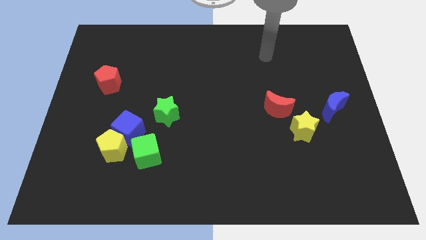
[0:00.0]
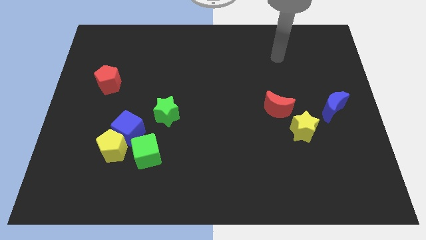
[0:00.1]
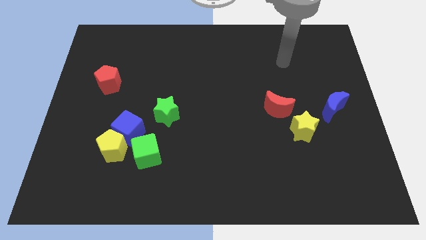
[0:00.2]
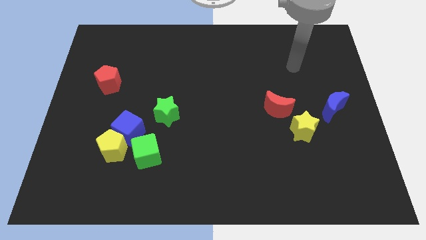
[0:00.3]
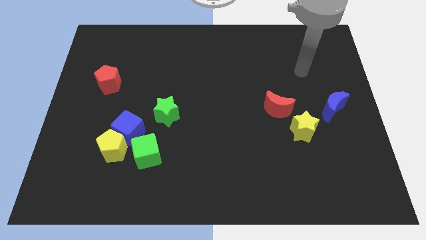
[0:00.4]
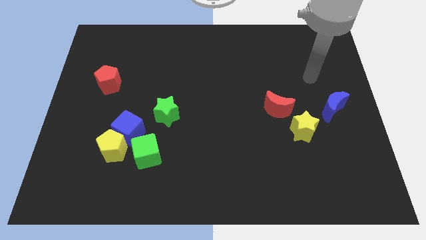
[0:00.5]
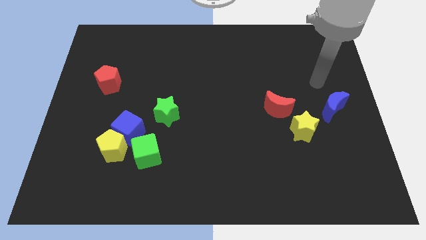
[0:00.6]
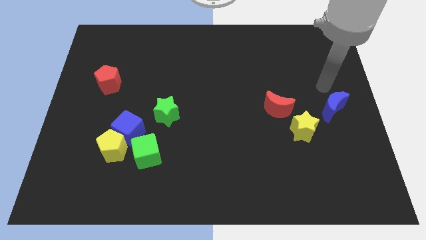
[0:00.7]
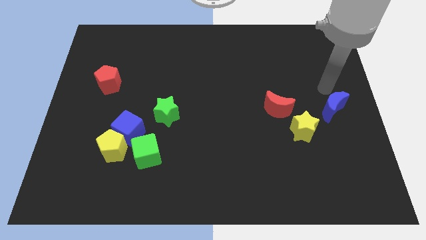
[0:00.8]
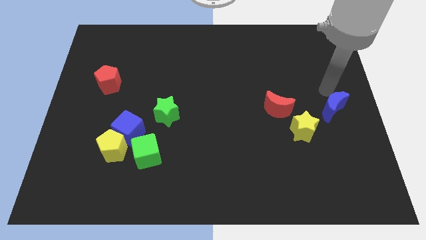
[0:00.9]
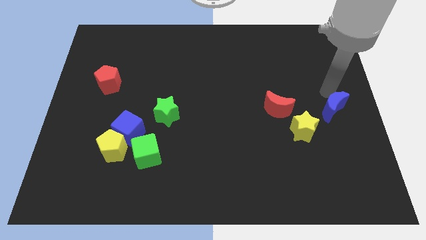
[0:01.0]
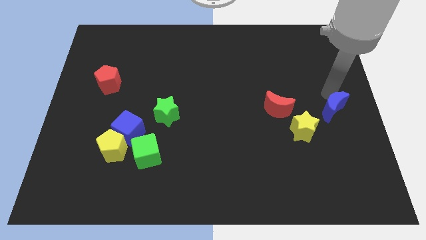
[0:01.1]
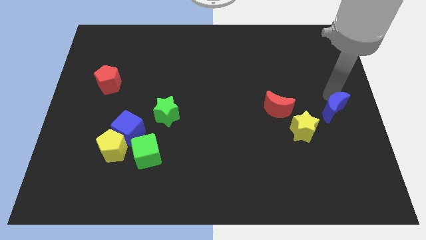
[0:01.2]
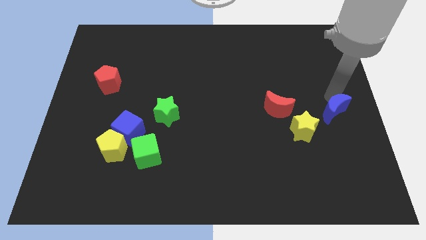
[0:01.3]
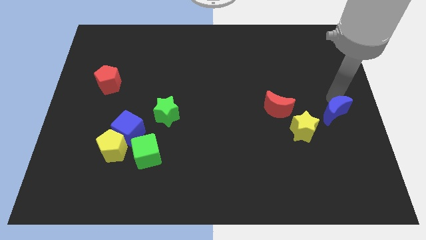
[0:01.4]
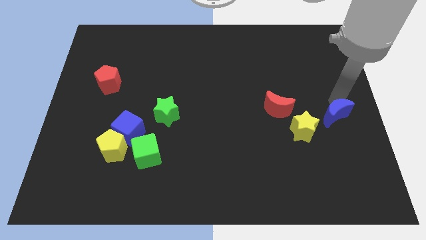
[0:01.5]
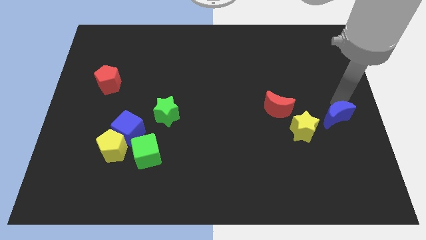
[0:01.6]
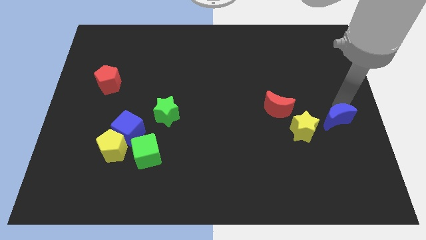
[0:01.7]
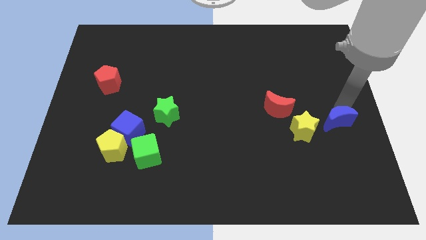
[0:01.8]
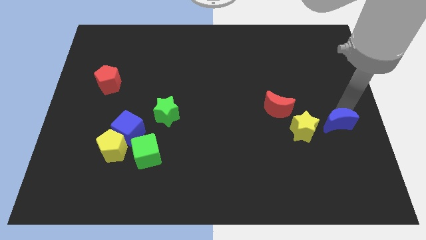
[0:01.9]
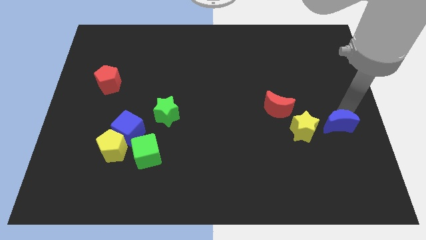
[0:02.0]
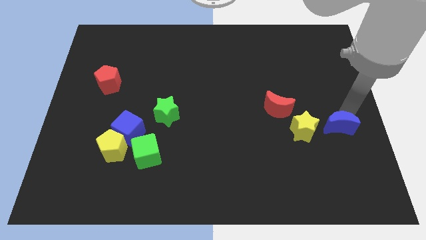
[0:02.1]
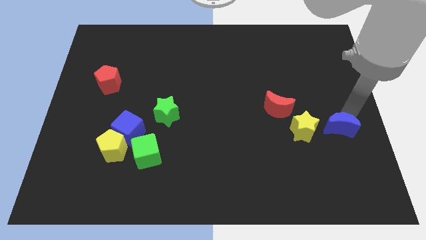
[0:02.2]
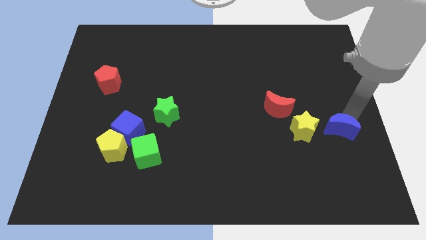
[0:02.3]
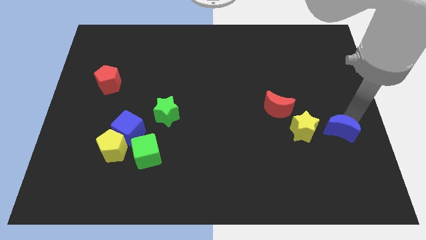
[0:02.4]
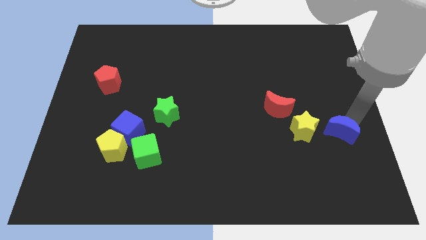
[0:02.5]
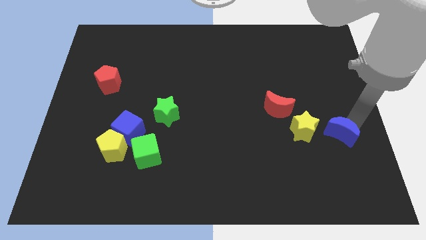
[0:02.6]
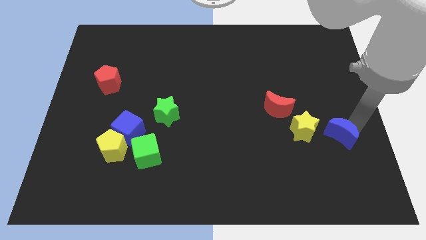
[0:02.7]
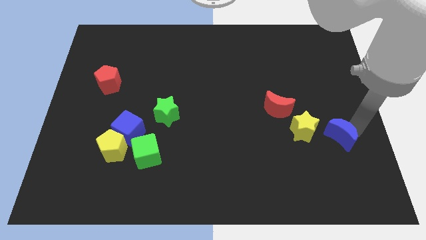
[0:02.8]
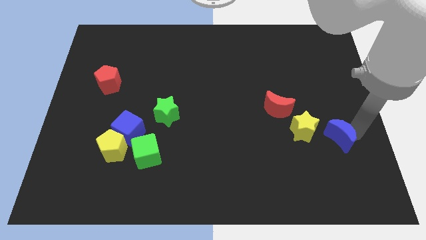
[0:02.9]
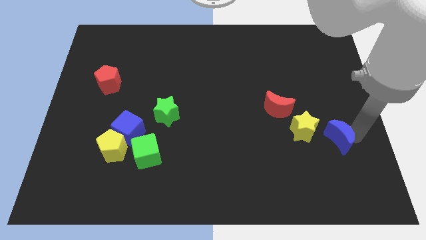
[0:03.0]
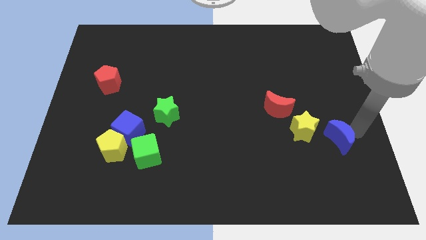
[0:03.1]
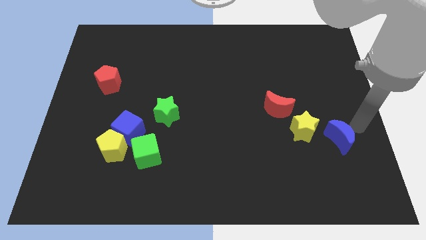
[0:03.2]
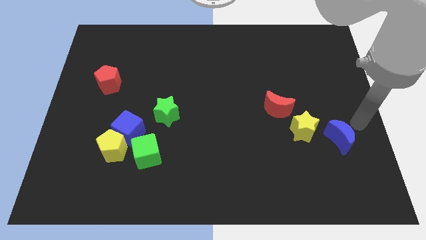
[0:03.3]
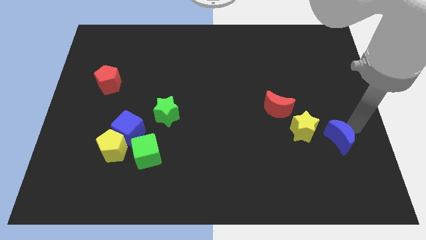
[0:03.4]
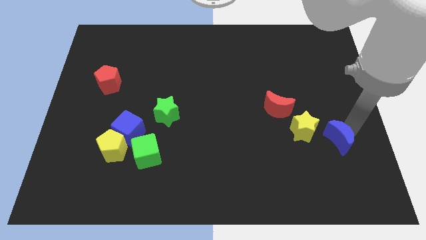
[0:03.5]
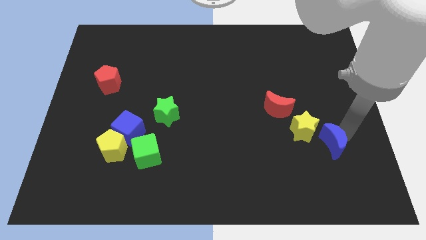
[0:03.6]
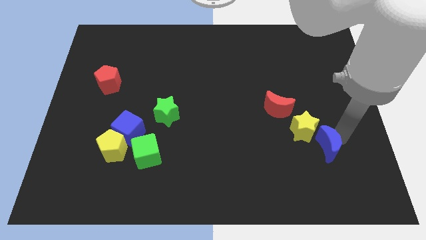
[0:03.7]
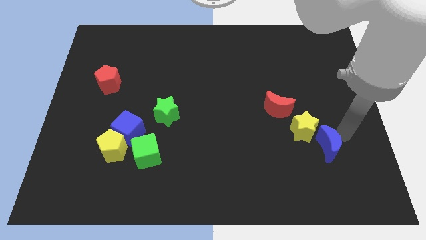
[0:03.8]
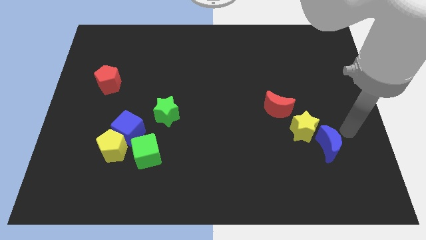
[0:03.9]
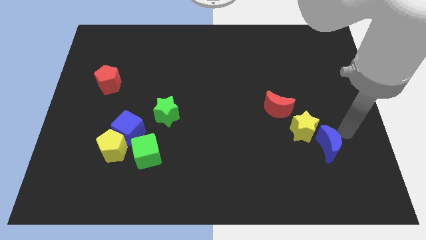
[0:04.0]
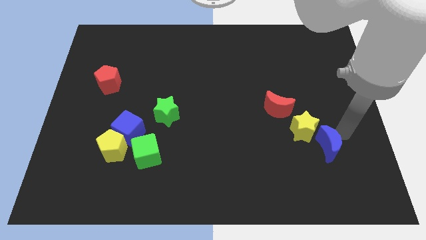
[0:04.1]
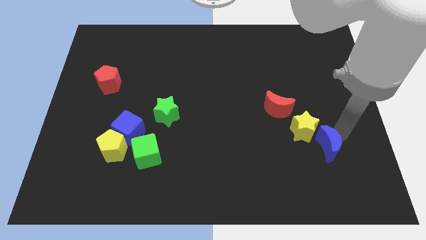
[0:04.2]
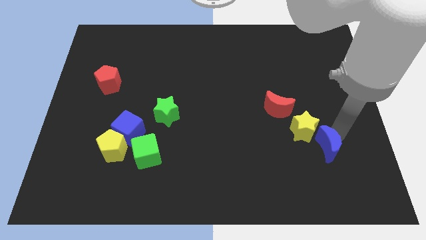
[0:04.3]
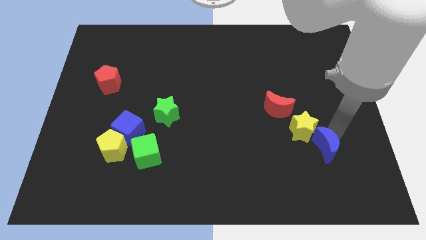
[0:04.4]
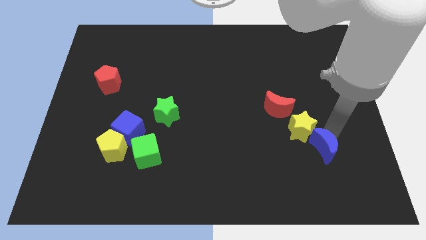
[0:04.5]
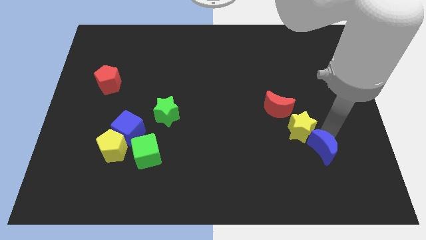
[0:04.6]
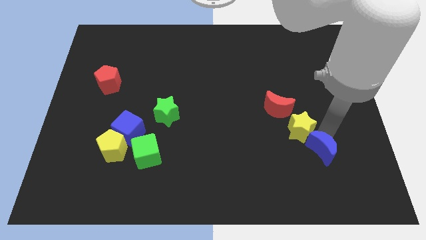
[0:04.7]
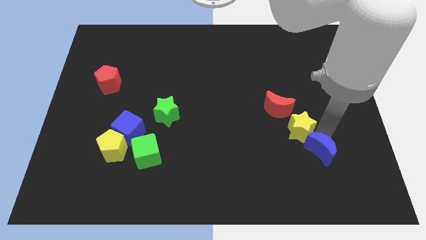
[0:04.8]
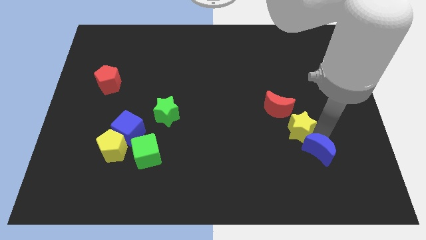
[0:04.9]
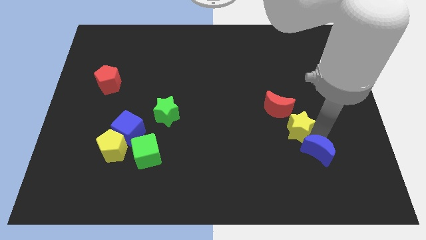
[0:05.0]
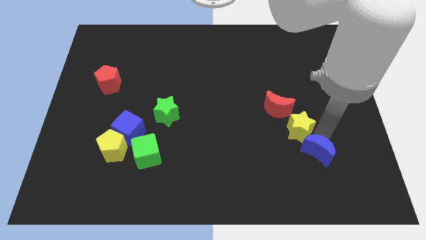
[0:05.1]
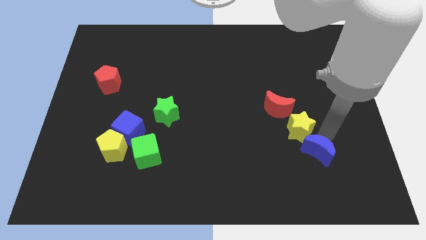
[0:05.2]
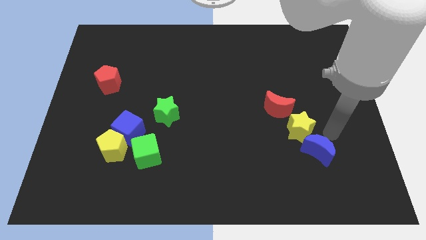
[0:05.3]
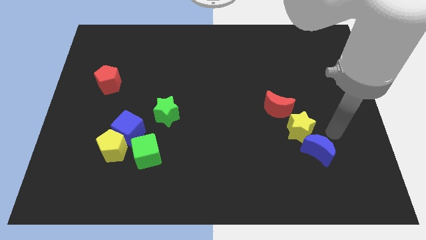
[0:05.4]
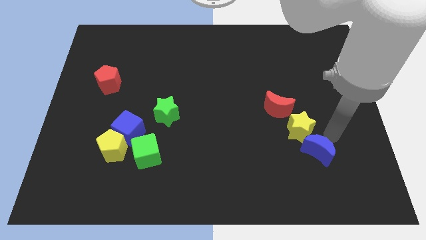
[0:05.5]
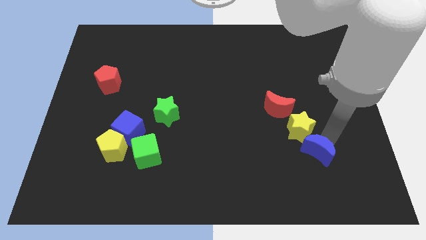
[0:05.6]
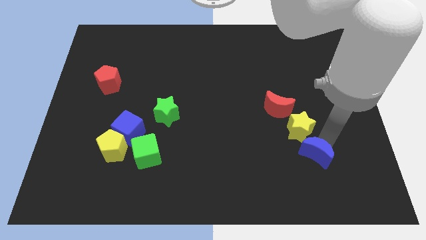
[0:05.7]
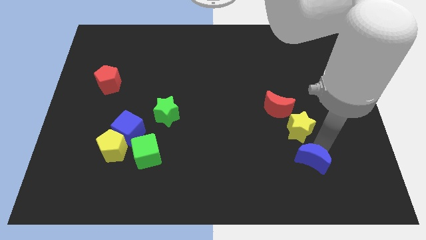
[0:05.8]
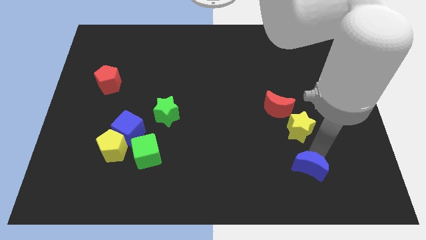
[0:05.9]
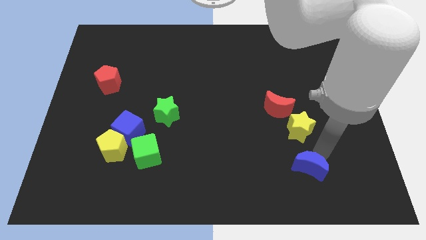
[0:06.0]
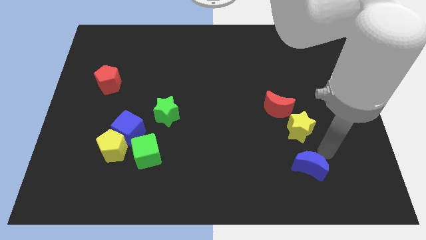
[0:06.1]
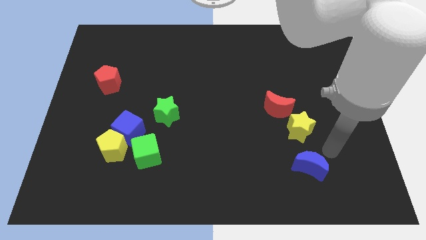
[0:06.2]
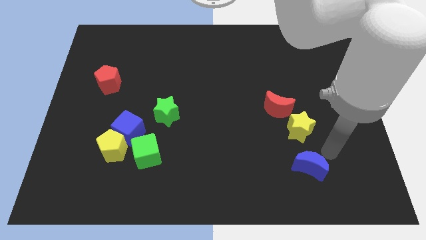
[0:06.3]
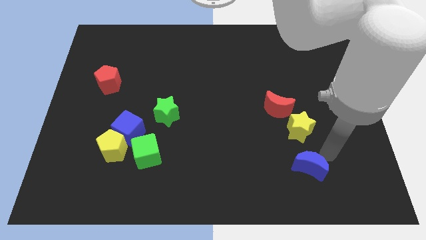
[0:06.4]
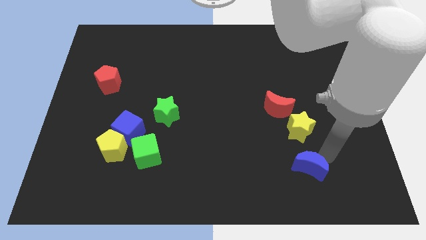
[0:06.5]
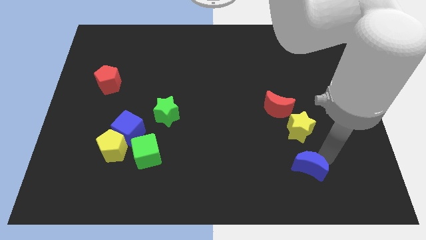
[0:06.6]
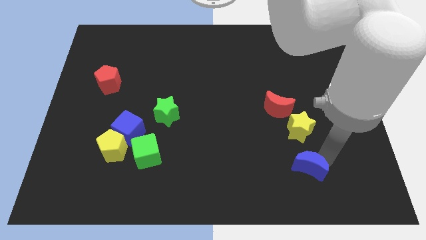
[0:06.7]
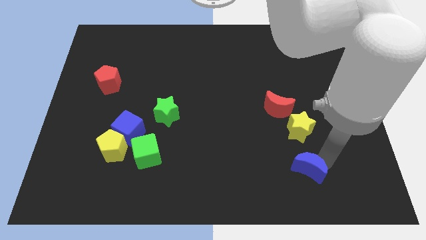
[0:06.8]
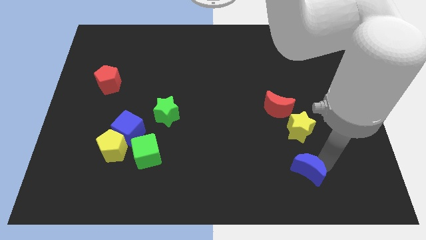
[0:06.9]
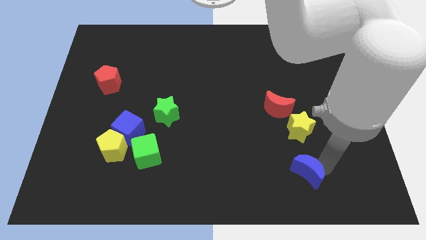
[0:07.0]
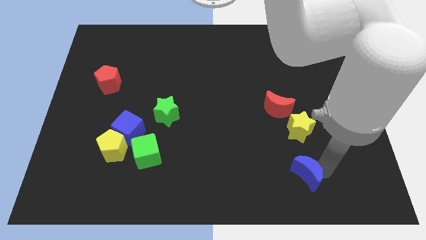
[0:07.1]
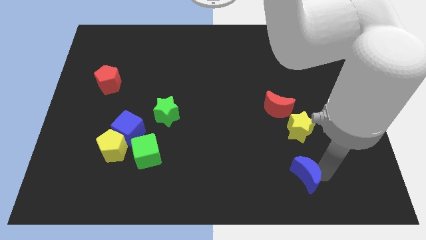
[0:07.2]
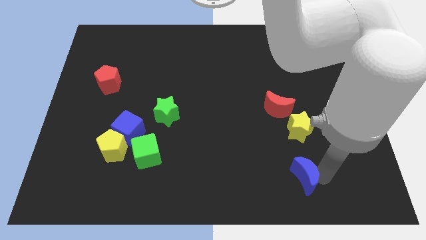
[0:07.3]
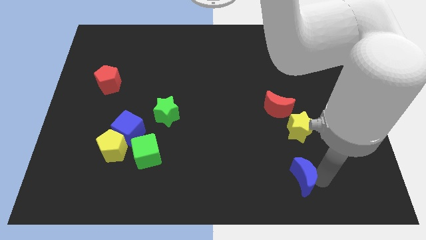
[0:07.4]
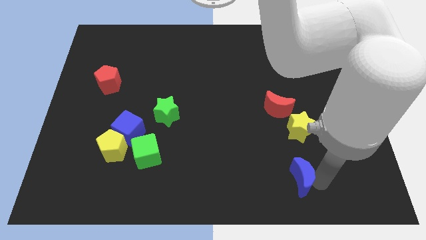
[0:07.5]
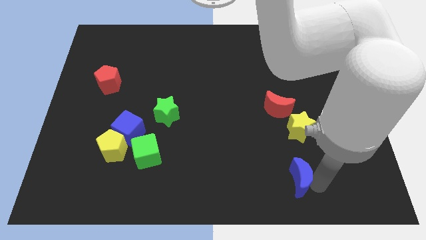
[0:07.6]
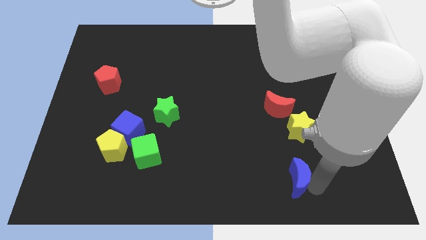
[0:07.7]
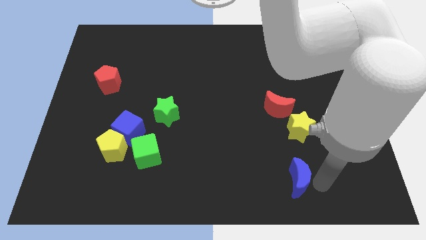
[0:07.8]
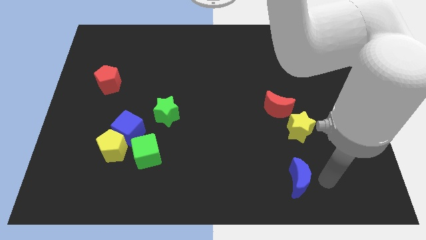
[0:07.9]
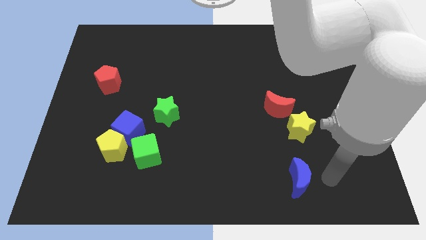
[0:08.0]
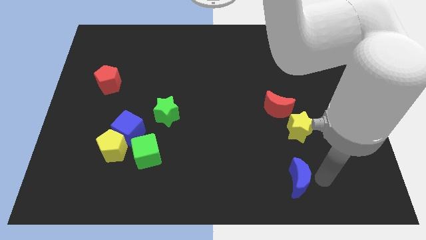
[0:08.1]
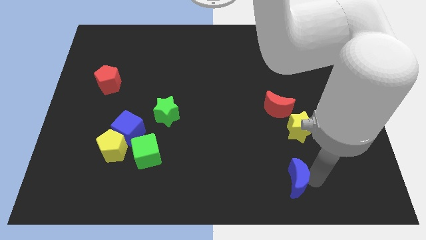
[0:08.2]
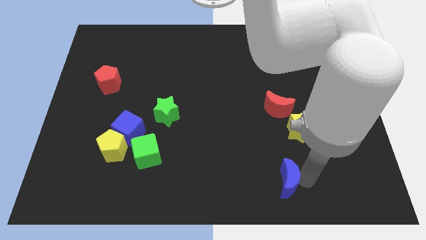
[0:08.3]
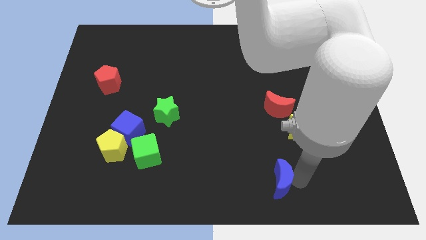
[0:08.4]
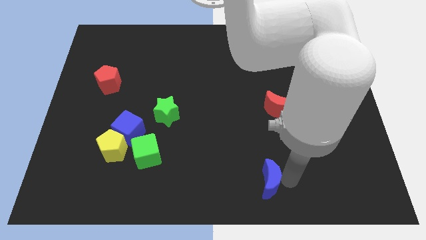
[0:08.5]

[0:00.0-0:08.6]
push the blue moon to the bottom
